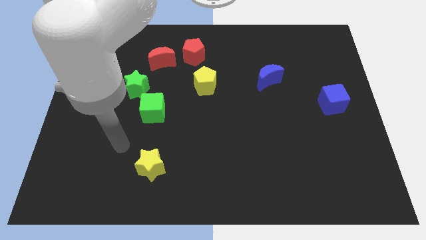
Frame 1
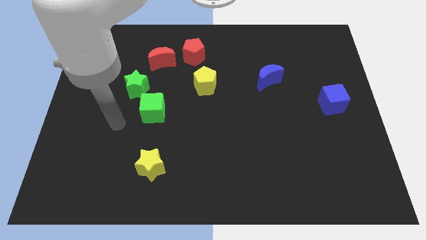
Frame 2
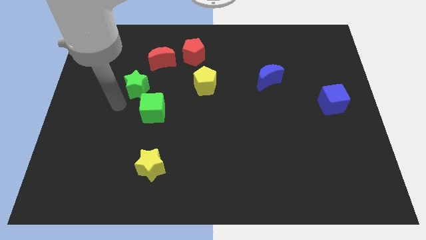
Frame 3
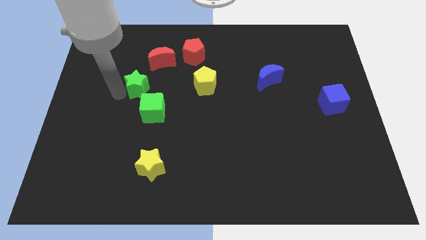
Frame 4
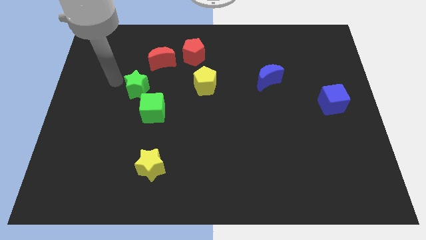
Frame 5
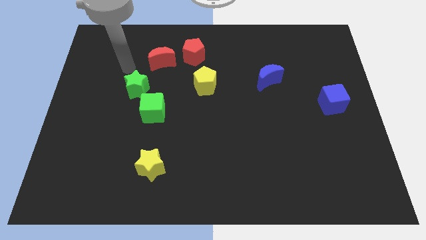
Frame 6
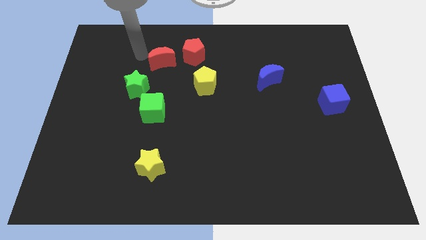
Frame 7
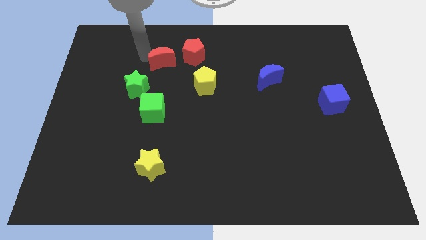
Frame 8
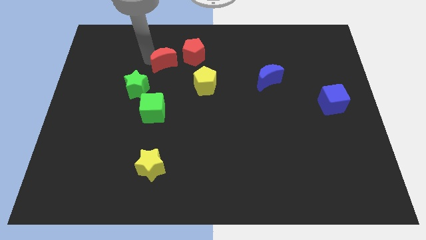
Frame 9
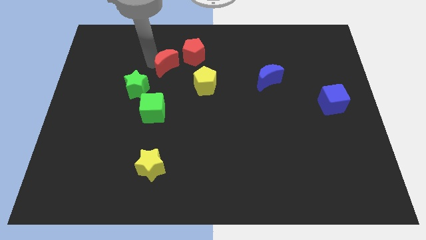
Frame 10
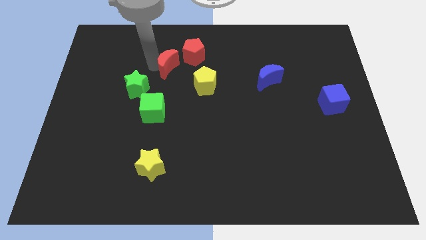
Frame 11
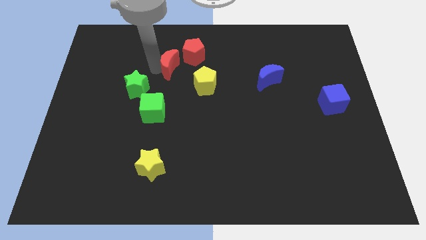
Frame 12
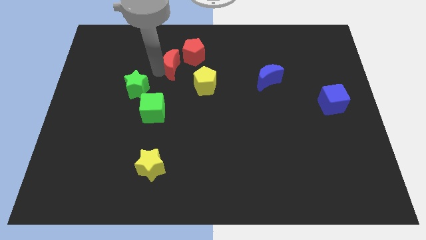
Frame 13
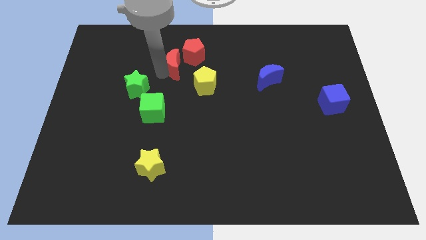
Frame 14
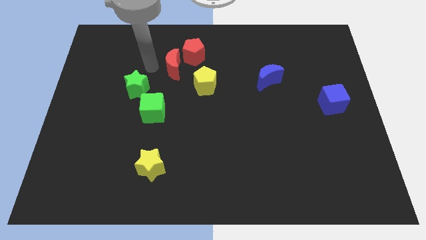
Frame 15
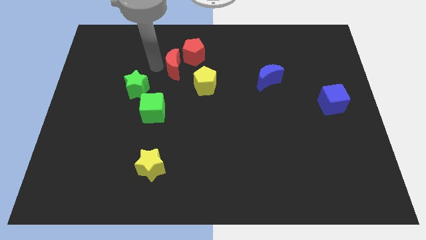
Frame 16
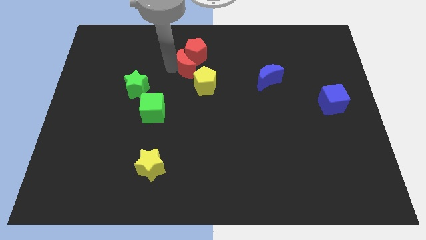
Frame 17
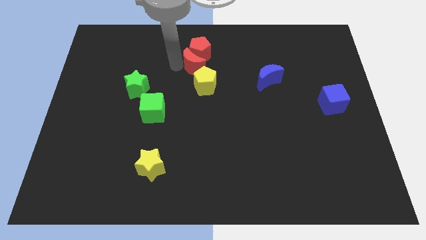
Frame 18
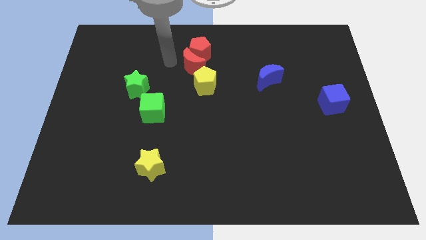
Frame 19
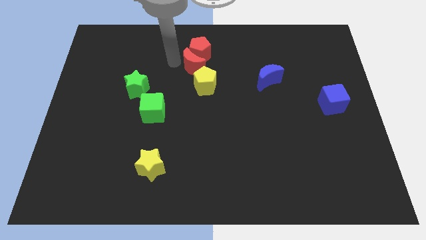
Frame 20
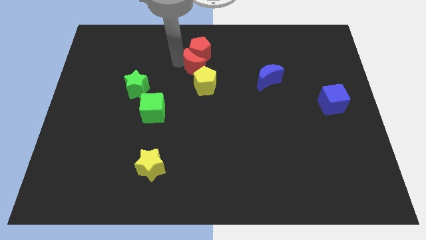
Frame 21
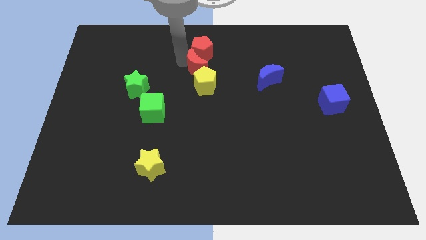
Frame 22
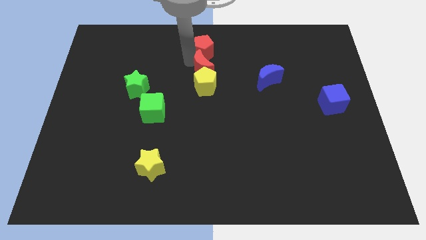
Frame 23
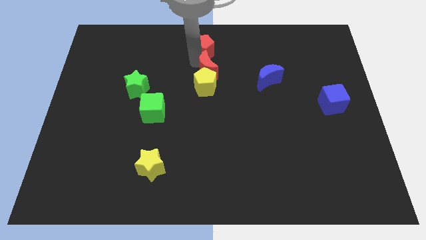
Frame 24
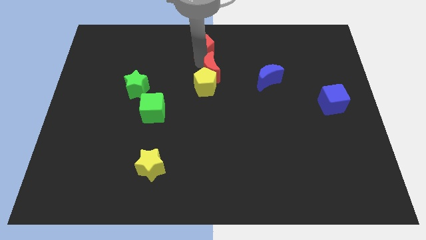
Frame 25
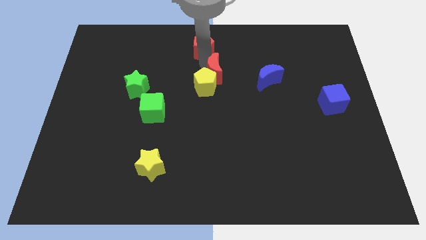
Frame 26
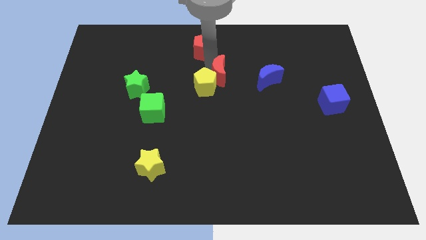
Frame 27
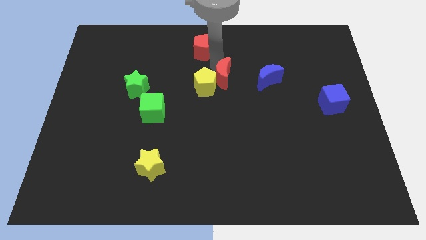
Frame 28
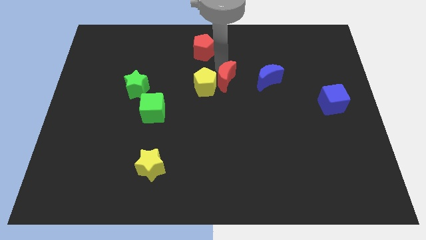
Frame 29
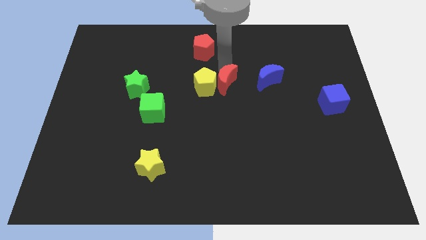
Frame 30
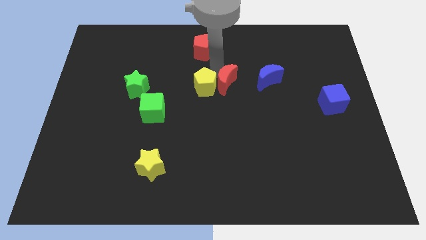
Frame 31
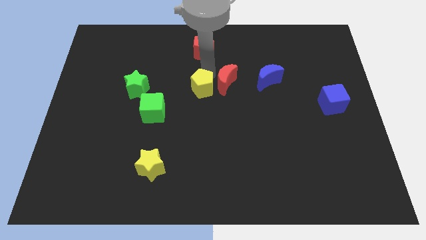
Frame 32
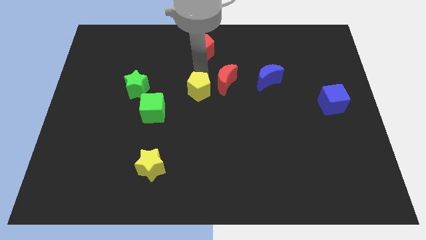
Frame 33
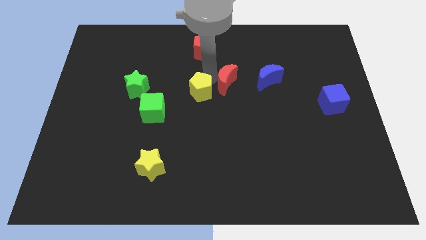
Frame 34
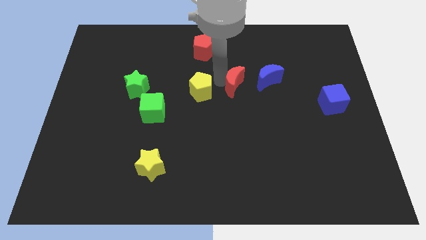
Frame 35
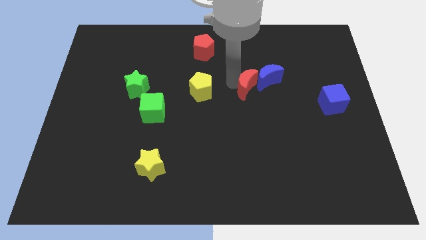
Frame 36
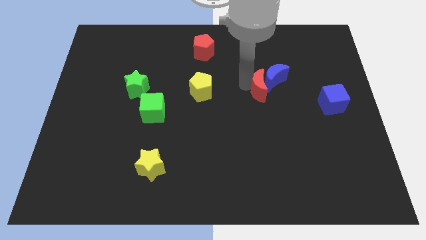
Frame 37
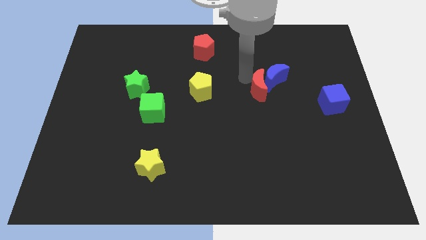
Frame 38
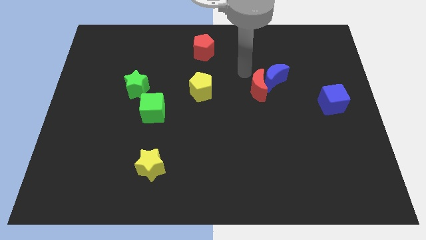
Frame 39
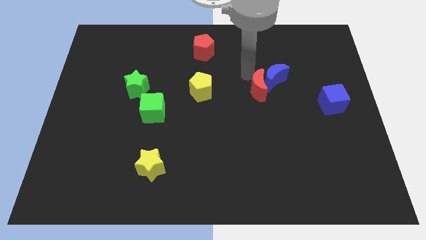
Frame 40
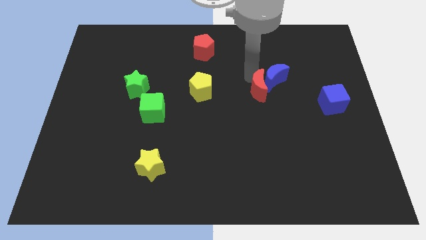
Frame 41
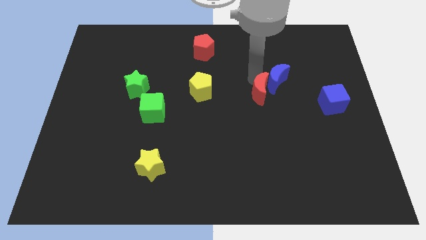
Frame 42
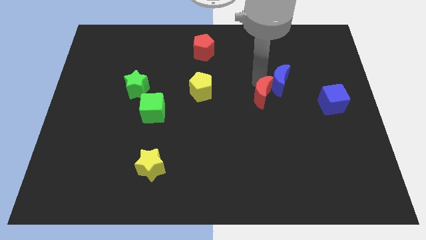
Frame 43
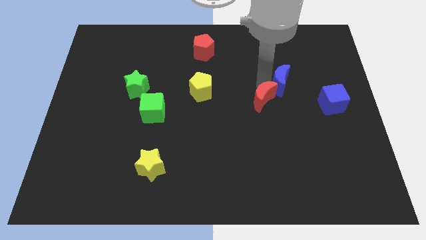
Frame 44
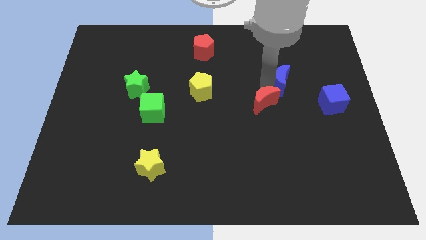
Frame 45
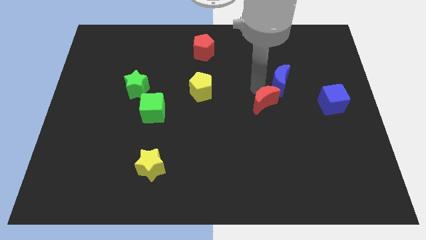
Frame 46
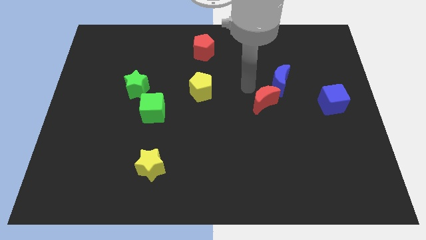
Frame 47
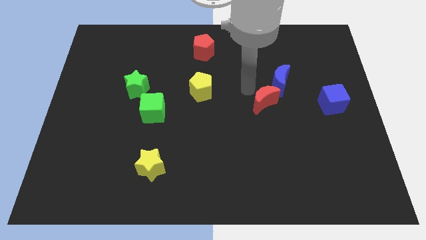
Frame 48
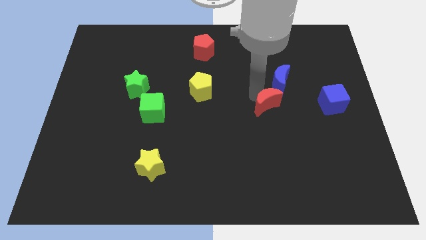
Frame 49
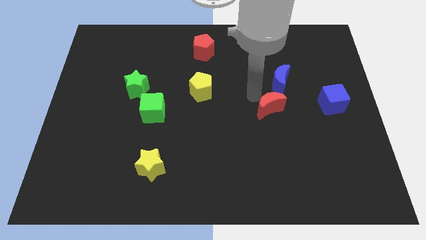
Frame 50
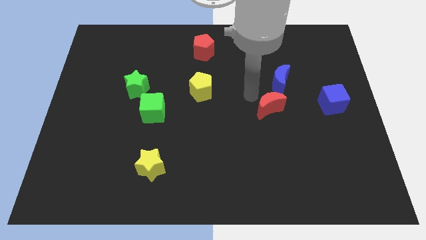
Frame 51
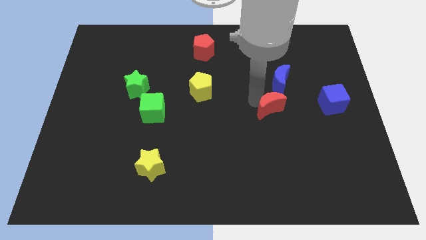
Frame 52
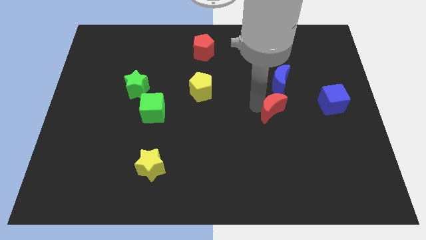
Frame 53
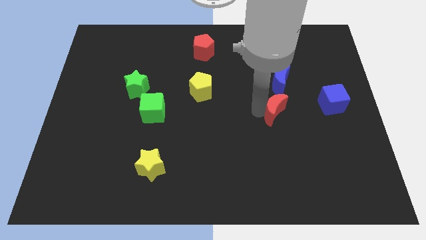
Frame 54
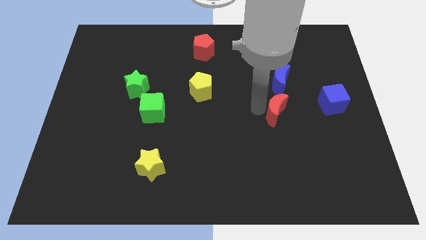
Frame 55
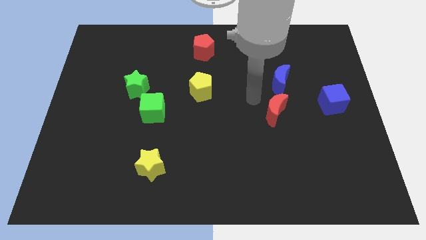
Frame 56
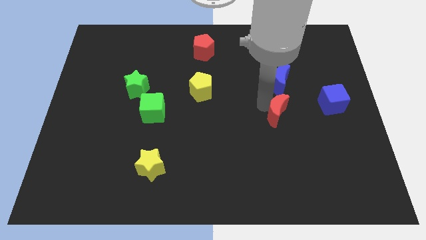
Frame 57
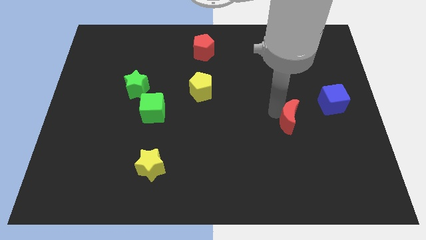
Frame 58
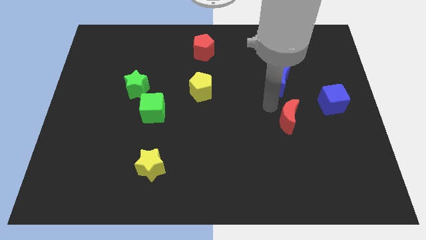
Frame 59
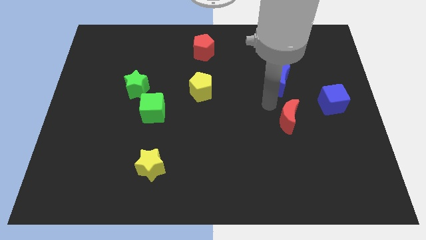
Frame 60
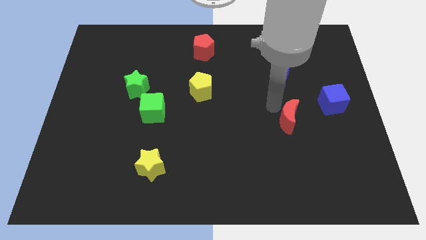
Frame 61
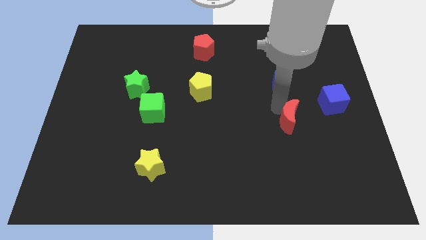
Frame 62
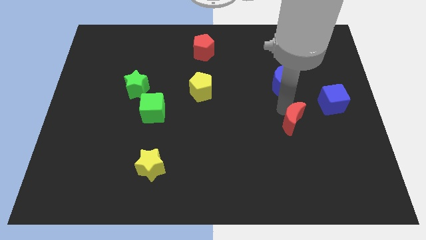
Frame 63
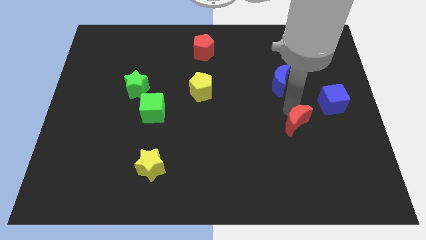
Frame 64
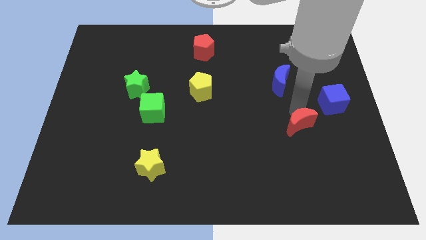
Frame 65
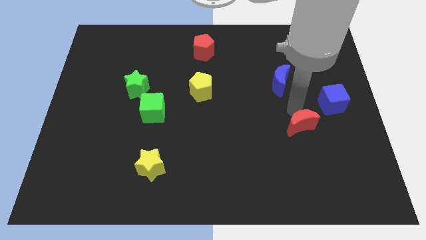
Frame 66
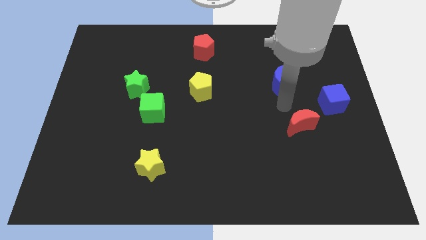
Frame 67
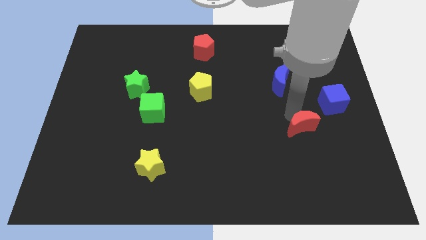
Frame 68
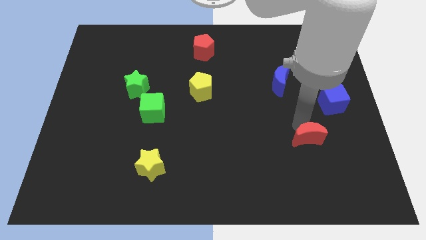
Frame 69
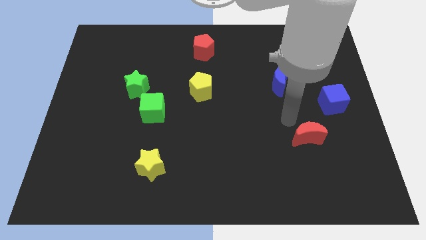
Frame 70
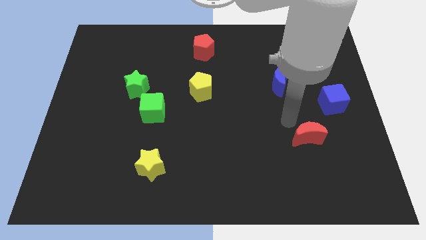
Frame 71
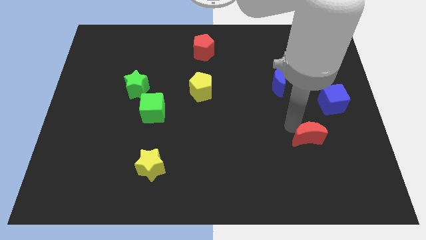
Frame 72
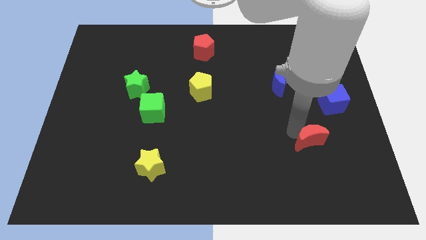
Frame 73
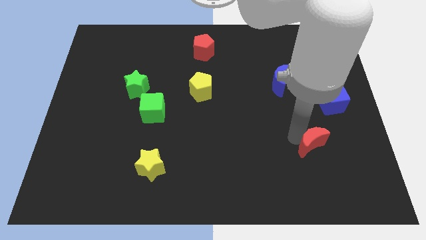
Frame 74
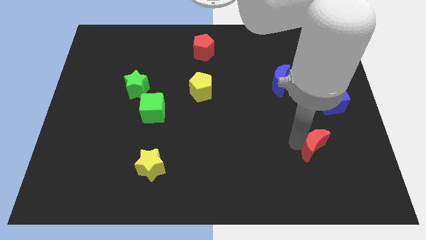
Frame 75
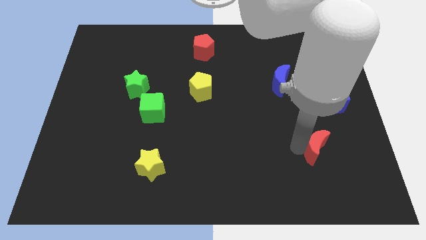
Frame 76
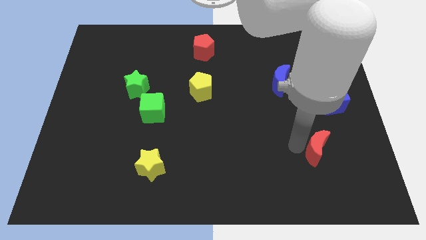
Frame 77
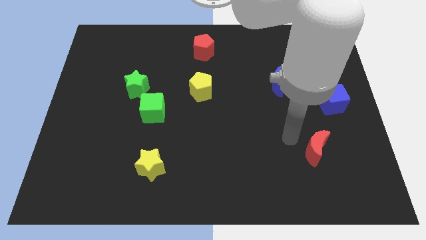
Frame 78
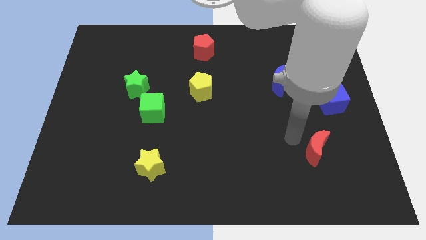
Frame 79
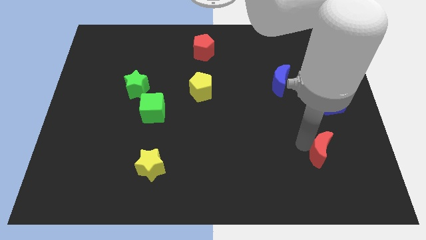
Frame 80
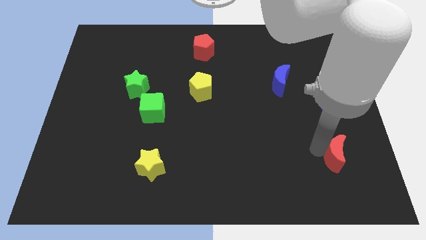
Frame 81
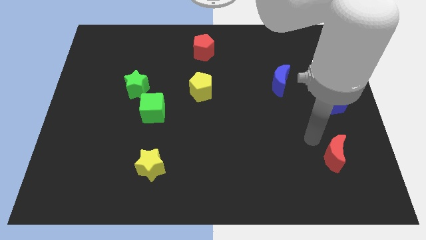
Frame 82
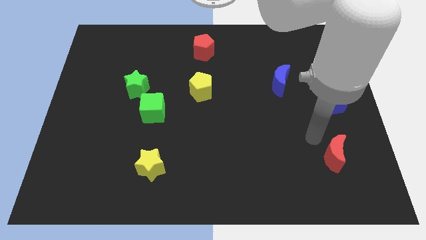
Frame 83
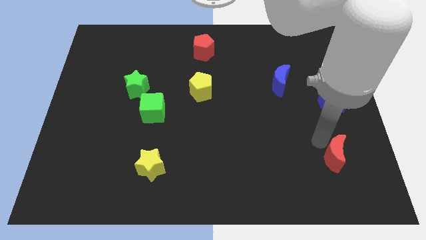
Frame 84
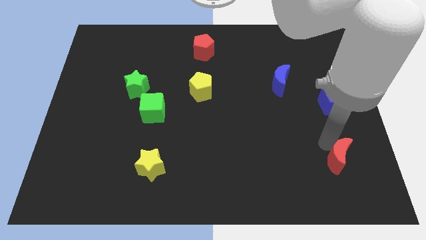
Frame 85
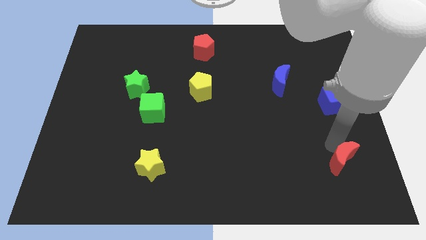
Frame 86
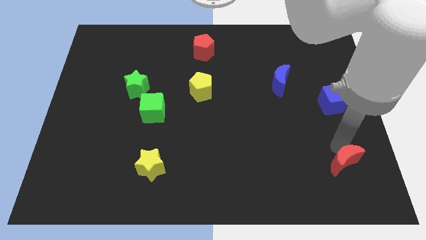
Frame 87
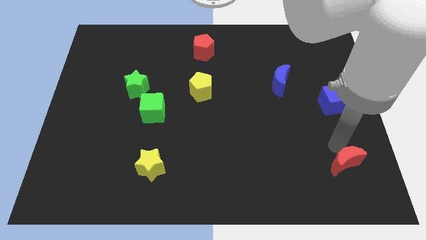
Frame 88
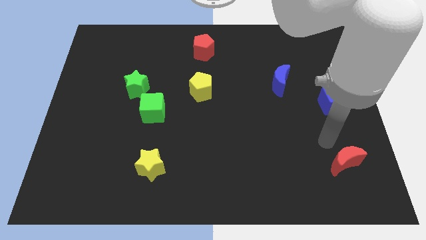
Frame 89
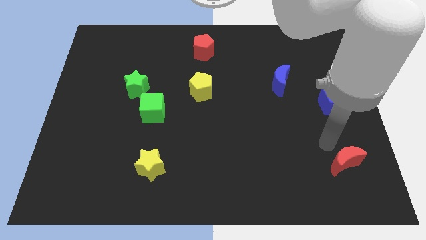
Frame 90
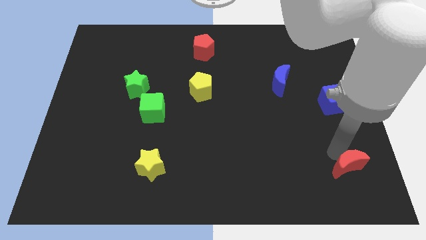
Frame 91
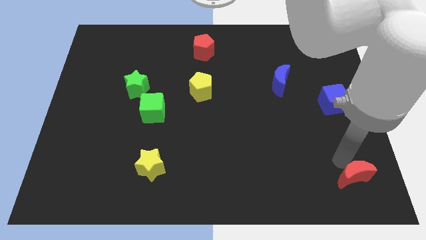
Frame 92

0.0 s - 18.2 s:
put the red moon to the lower right corner
